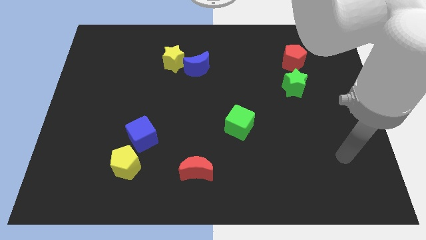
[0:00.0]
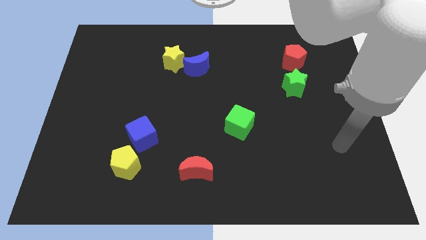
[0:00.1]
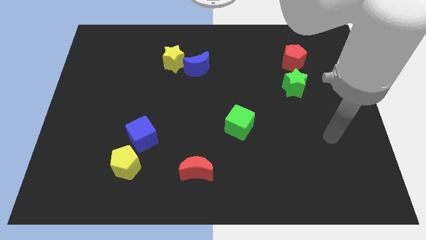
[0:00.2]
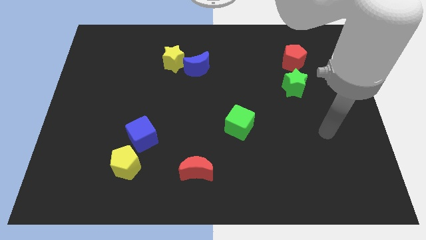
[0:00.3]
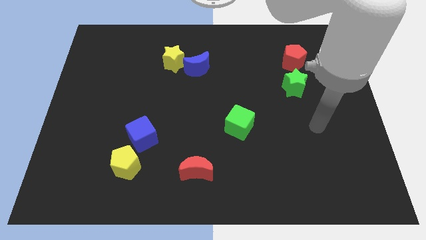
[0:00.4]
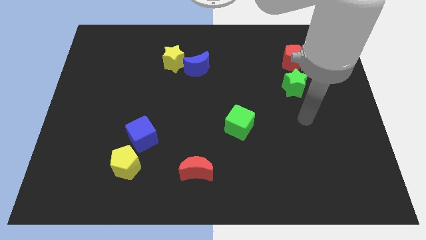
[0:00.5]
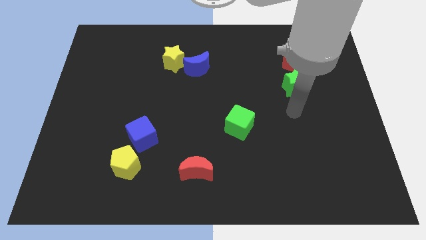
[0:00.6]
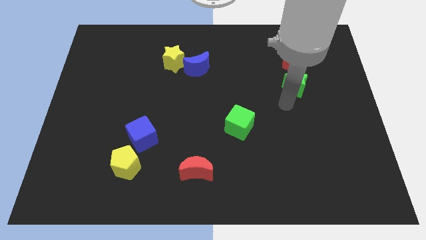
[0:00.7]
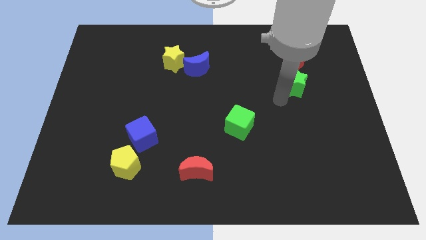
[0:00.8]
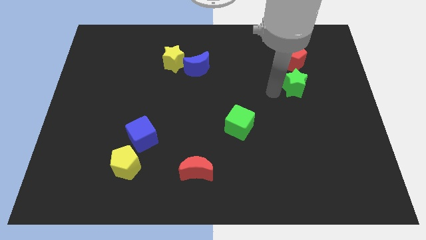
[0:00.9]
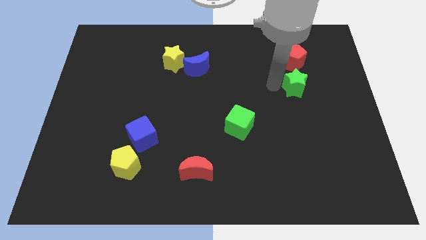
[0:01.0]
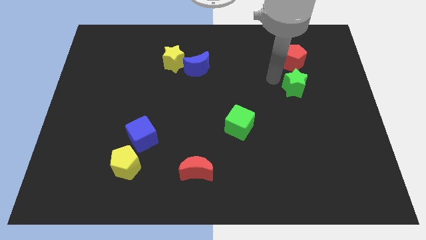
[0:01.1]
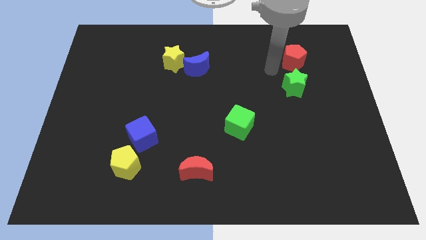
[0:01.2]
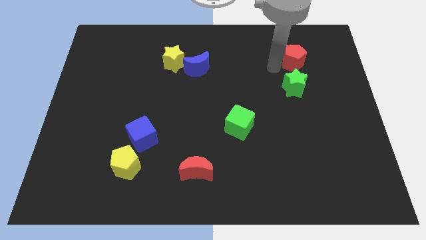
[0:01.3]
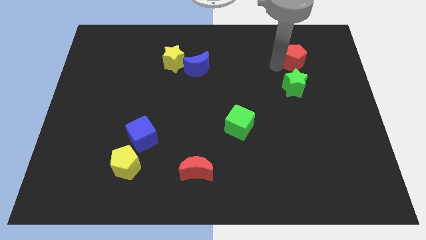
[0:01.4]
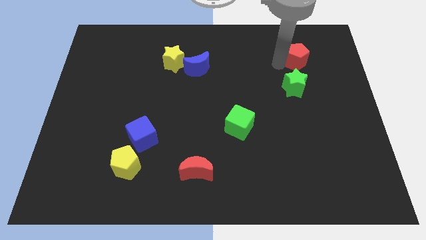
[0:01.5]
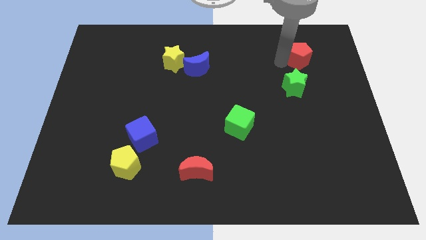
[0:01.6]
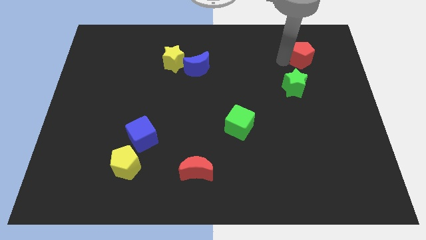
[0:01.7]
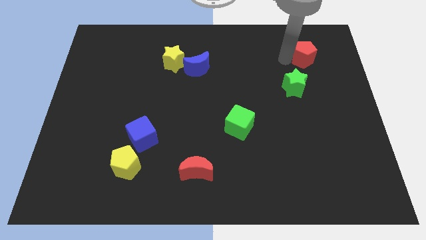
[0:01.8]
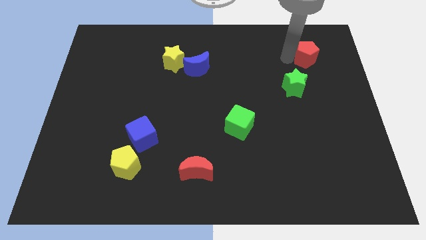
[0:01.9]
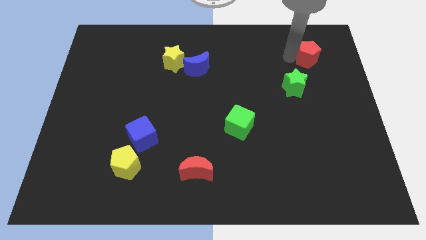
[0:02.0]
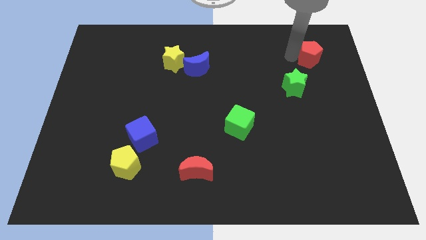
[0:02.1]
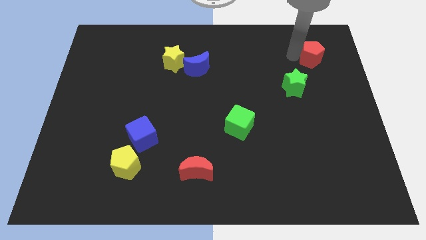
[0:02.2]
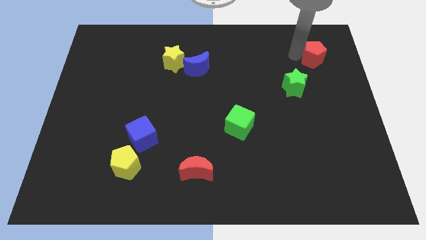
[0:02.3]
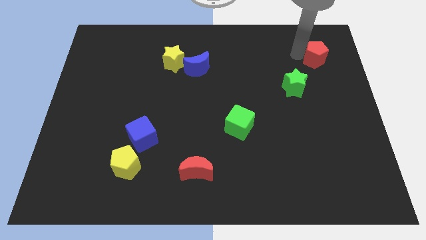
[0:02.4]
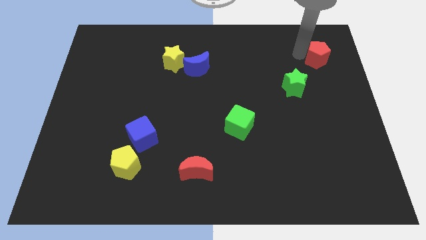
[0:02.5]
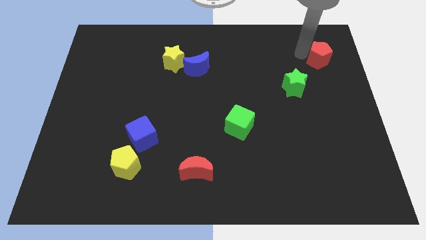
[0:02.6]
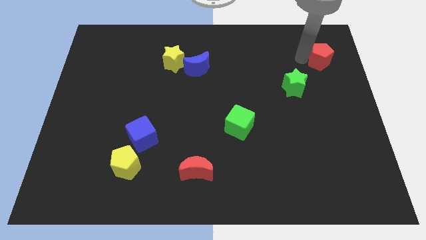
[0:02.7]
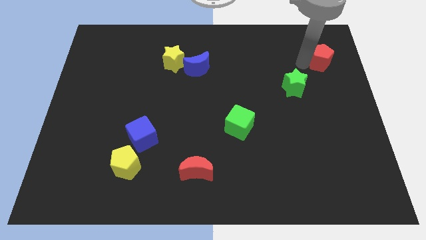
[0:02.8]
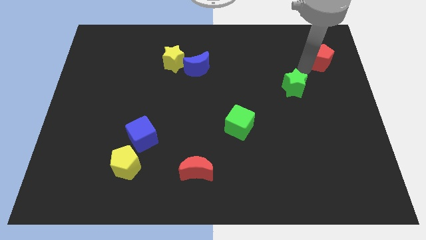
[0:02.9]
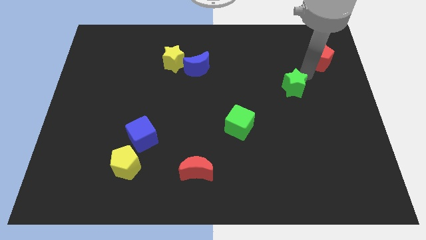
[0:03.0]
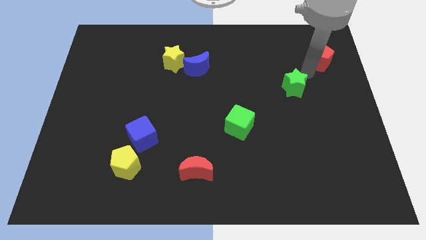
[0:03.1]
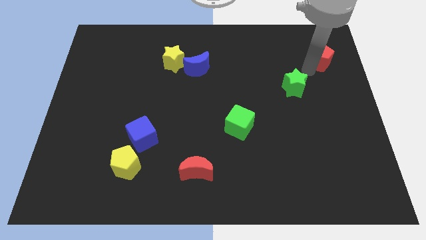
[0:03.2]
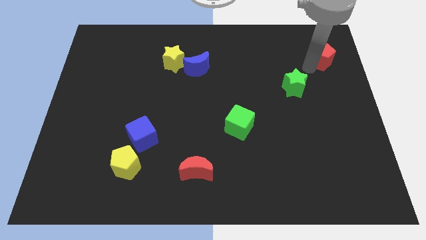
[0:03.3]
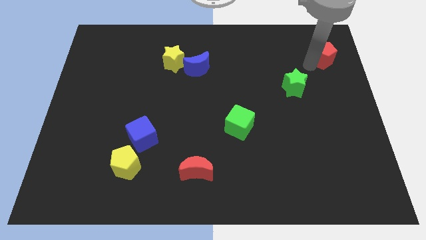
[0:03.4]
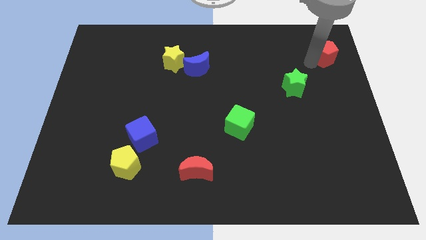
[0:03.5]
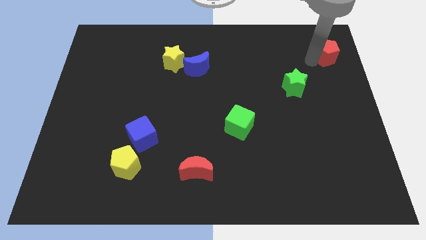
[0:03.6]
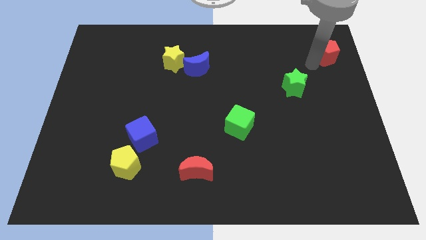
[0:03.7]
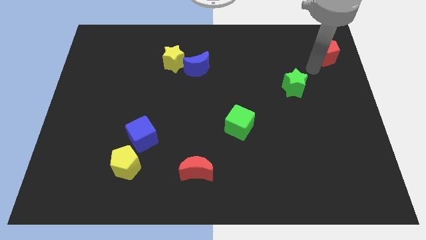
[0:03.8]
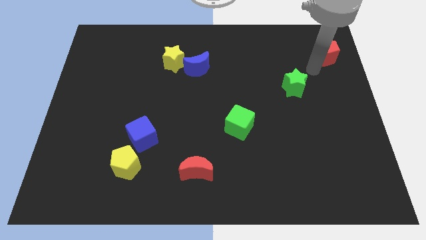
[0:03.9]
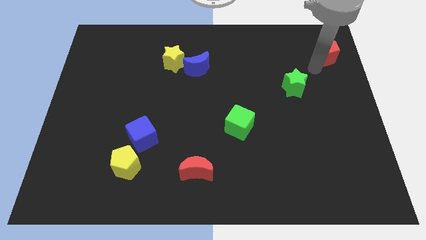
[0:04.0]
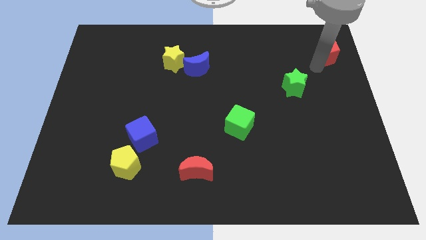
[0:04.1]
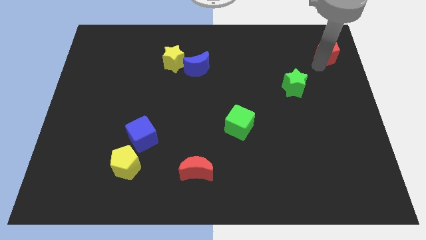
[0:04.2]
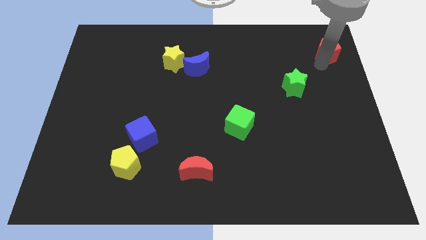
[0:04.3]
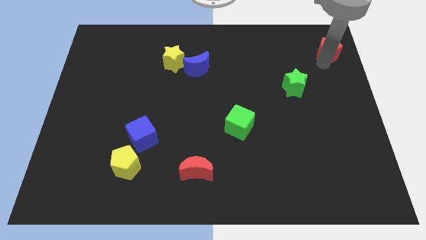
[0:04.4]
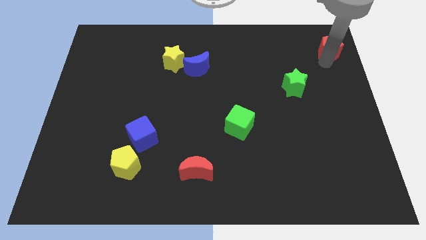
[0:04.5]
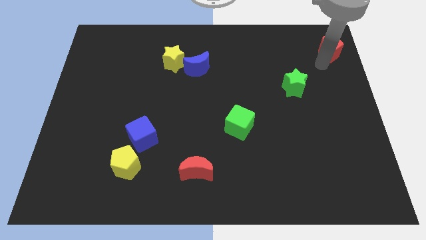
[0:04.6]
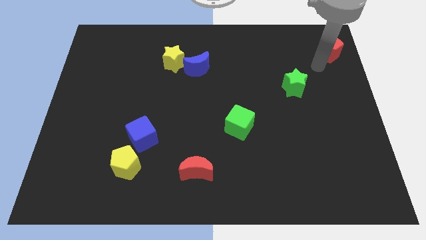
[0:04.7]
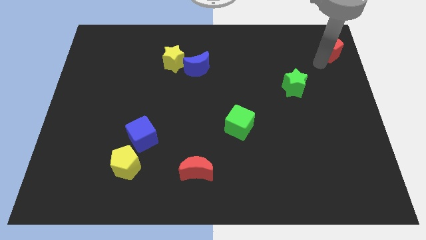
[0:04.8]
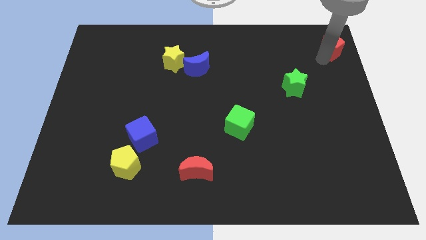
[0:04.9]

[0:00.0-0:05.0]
move the red pentagon to the top right

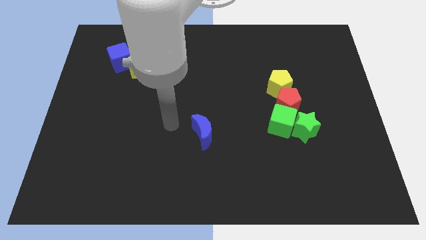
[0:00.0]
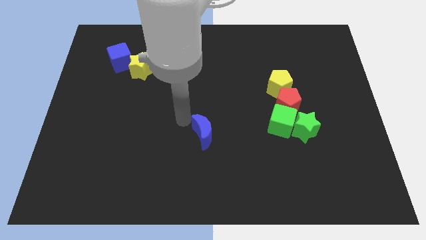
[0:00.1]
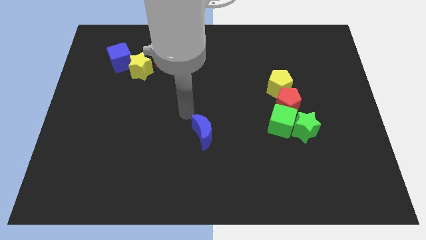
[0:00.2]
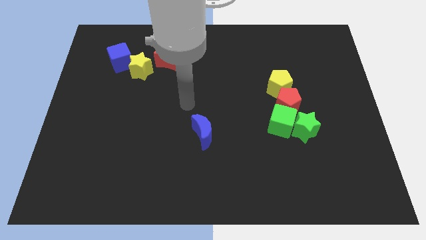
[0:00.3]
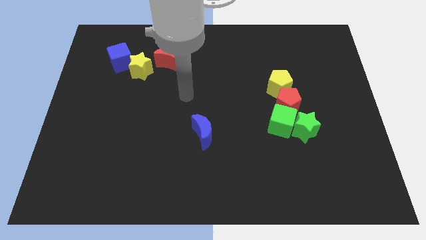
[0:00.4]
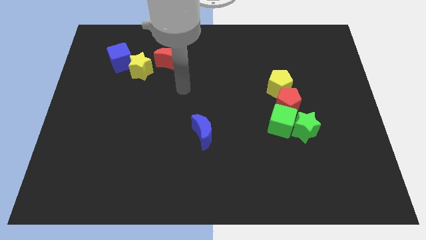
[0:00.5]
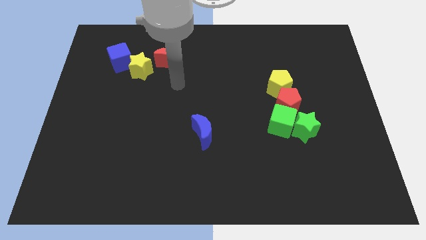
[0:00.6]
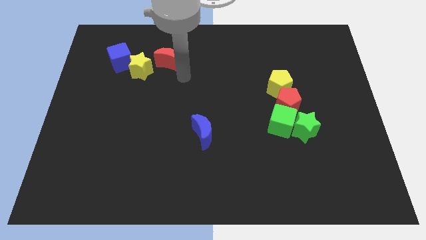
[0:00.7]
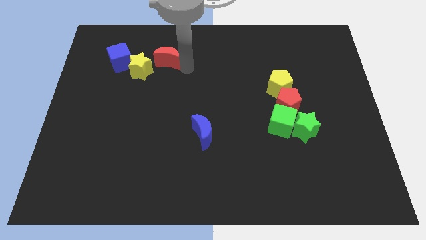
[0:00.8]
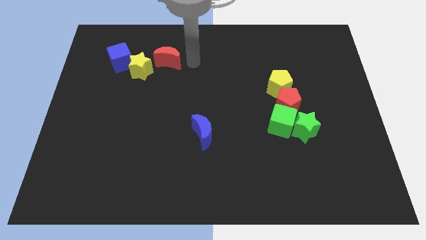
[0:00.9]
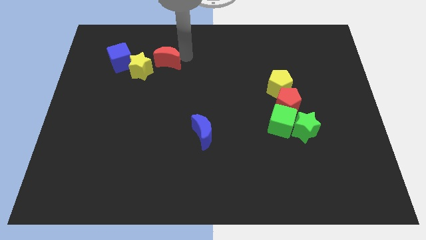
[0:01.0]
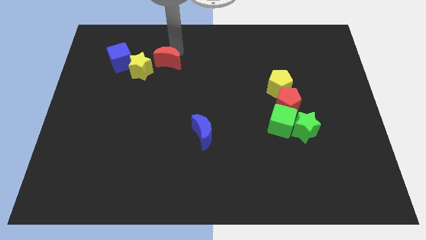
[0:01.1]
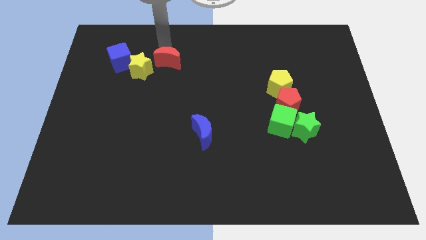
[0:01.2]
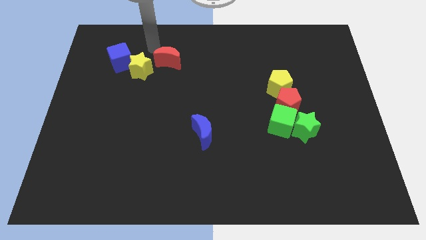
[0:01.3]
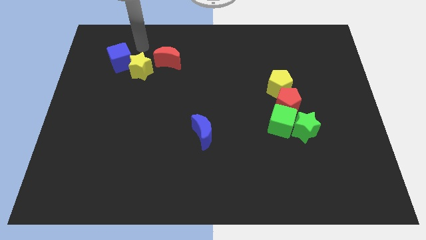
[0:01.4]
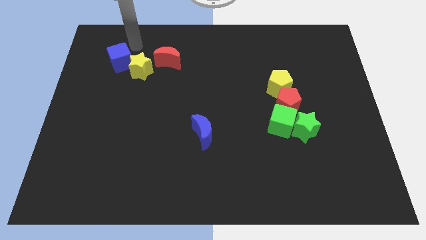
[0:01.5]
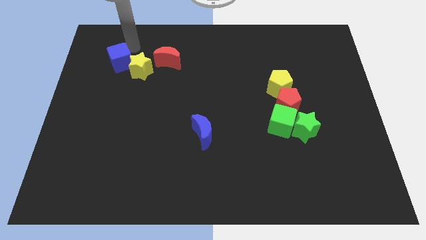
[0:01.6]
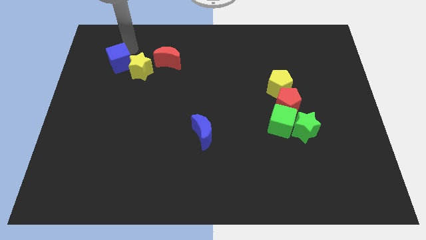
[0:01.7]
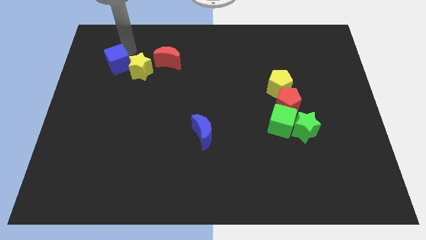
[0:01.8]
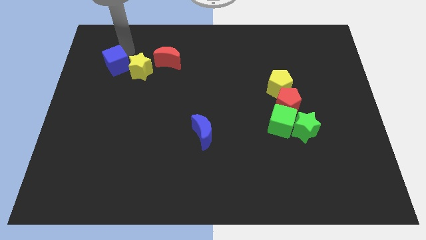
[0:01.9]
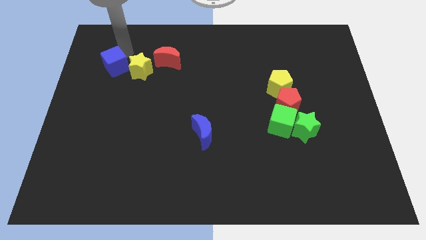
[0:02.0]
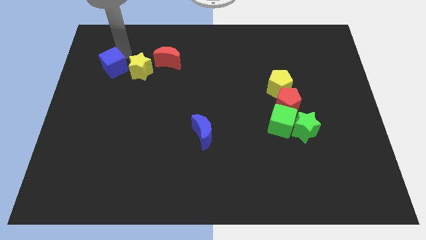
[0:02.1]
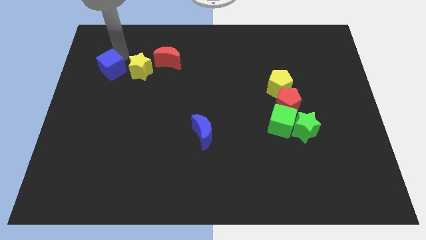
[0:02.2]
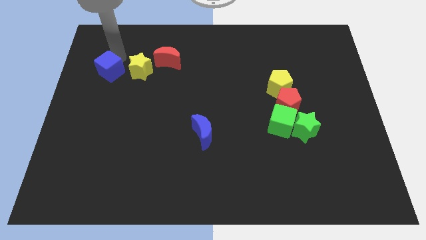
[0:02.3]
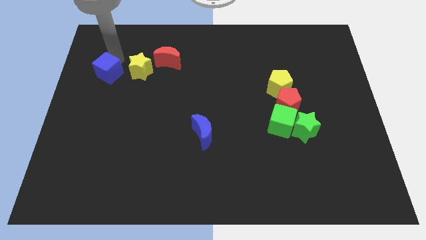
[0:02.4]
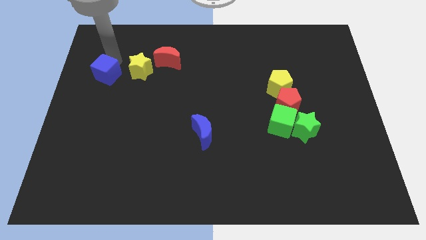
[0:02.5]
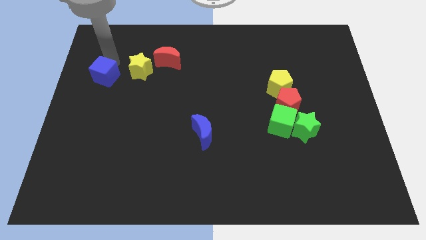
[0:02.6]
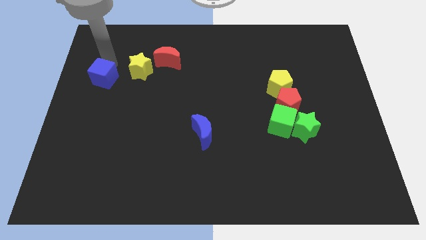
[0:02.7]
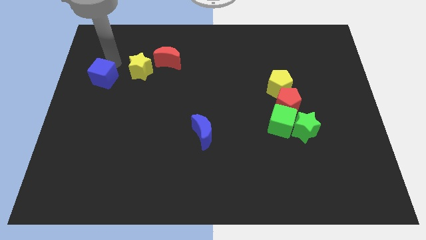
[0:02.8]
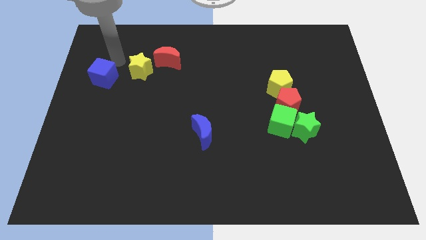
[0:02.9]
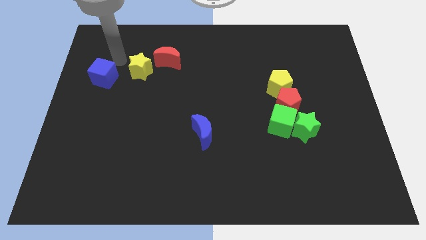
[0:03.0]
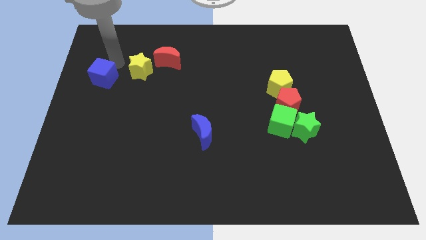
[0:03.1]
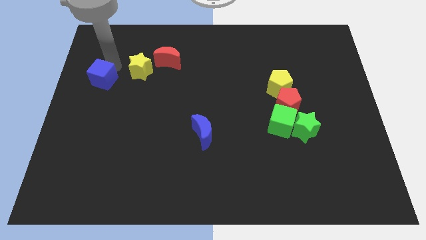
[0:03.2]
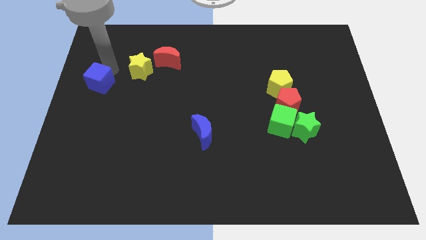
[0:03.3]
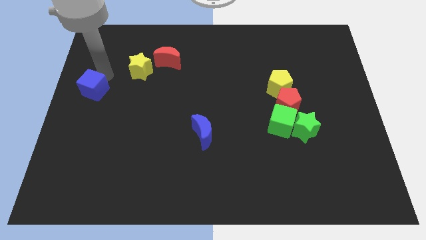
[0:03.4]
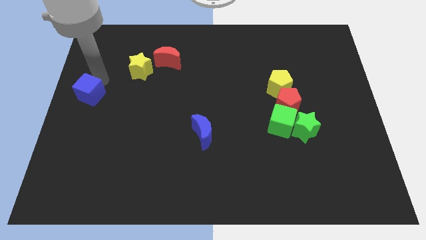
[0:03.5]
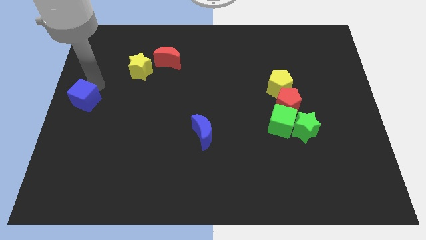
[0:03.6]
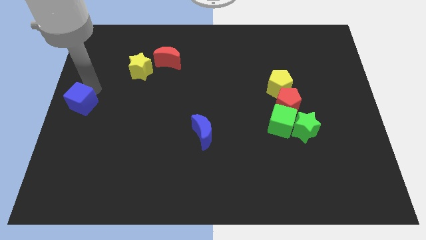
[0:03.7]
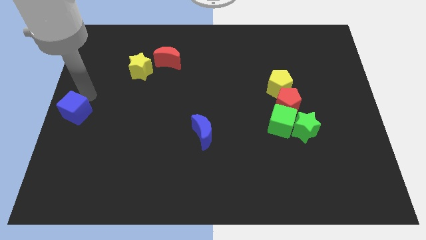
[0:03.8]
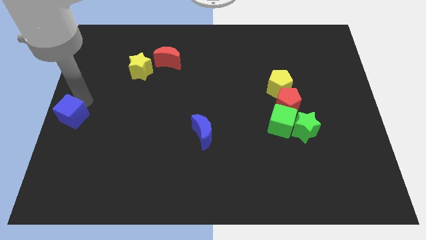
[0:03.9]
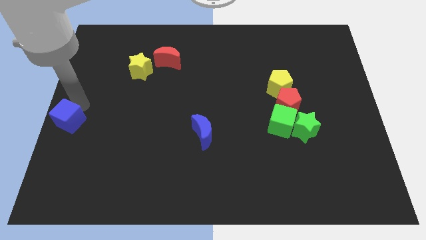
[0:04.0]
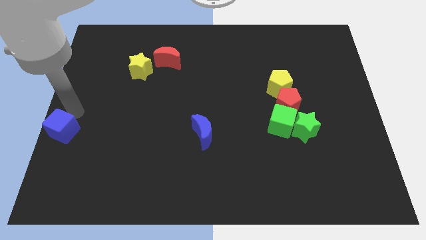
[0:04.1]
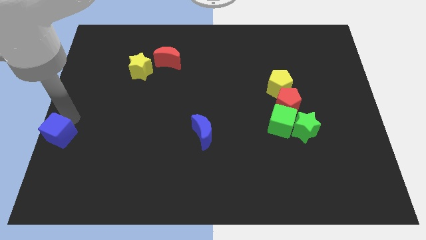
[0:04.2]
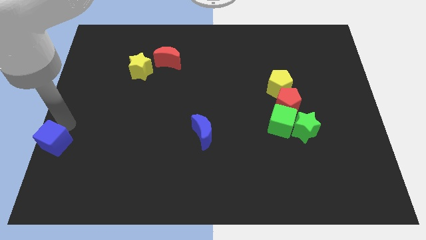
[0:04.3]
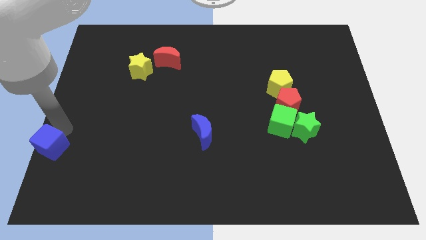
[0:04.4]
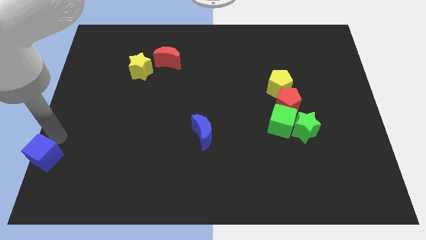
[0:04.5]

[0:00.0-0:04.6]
slide the blue cube to the bottom left of the board
